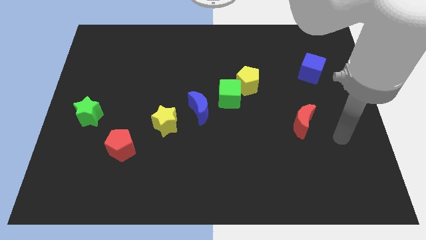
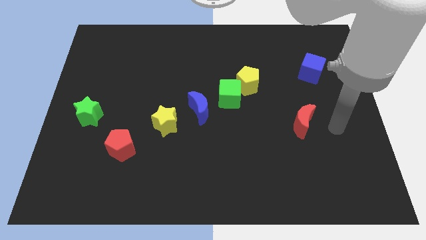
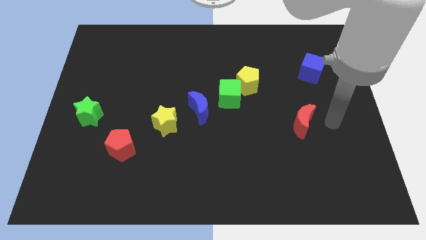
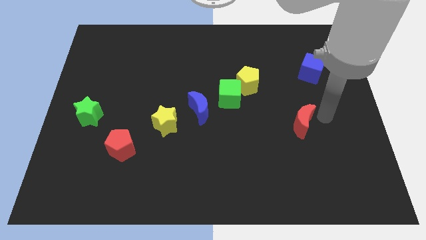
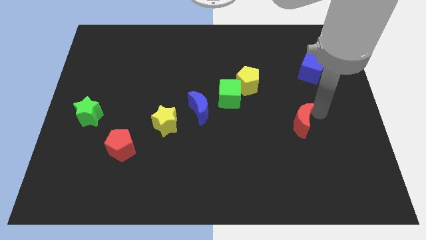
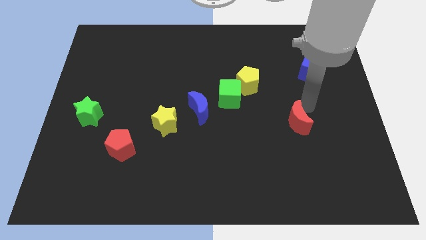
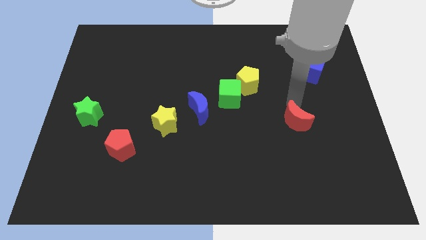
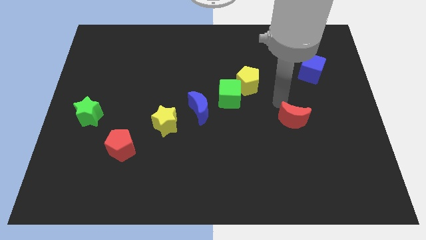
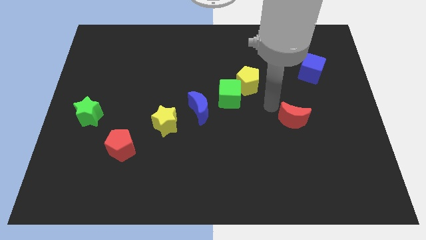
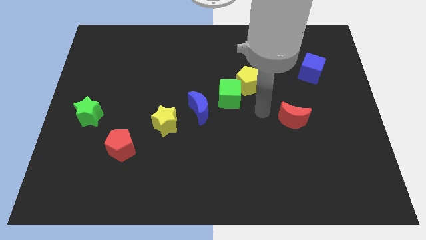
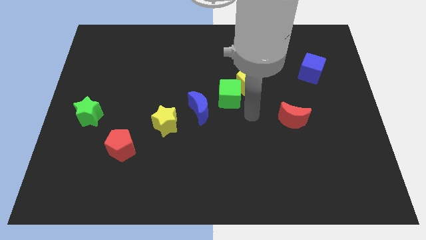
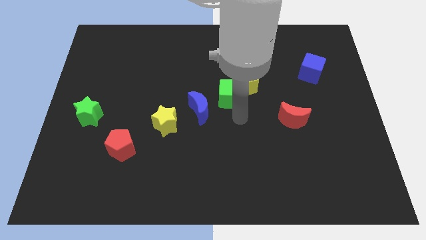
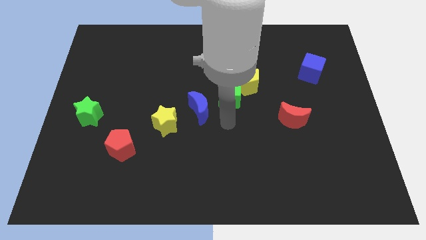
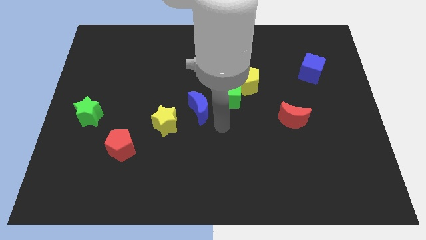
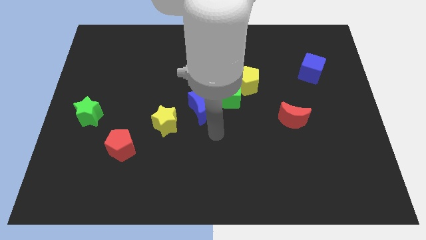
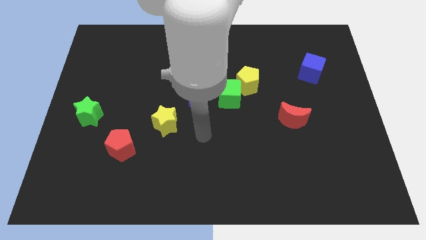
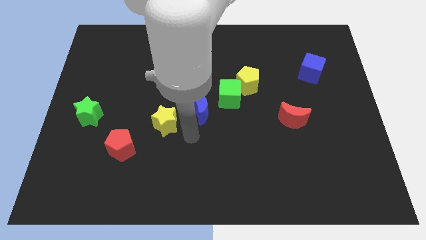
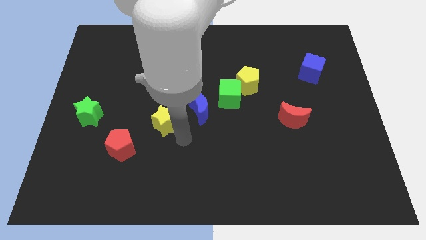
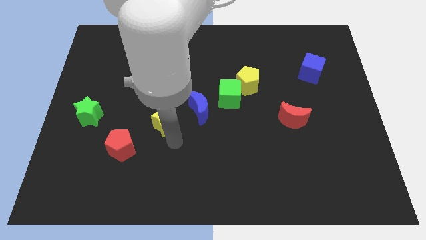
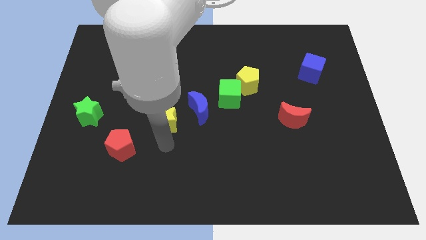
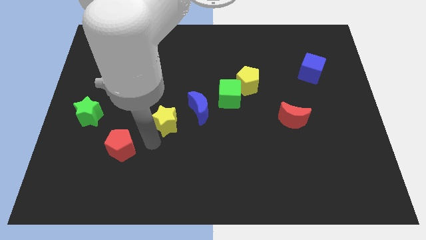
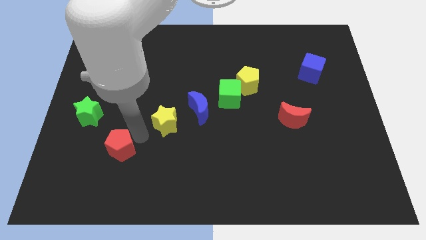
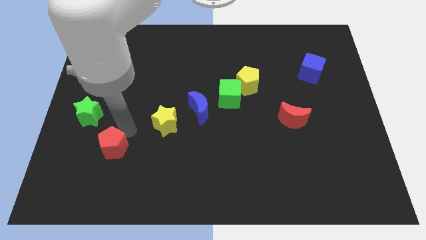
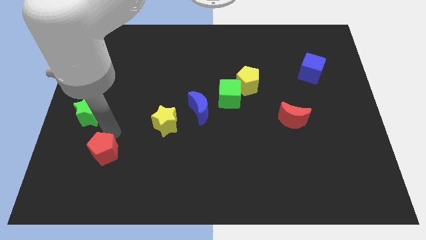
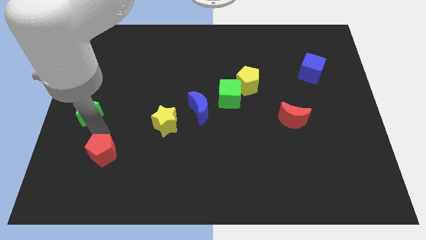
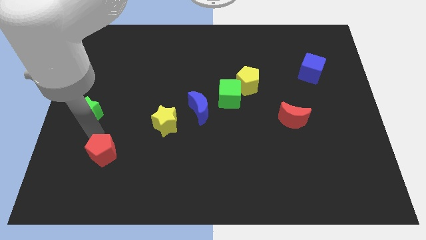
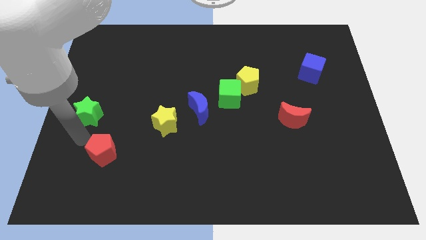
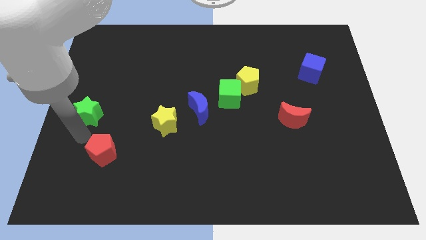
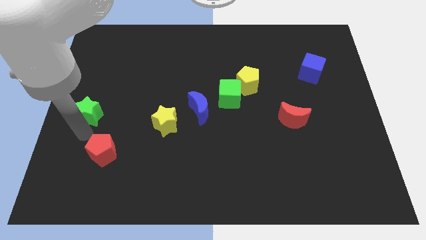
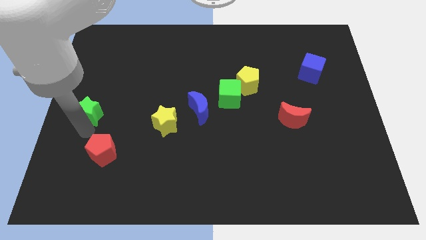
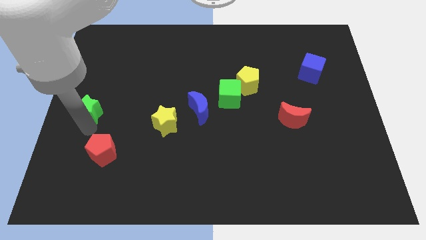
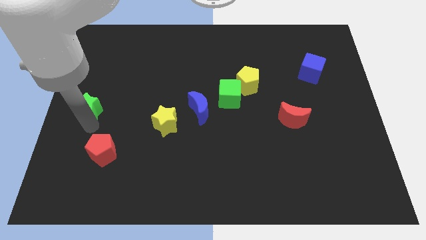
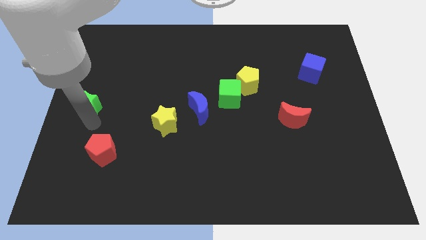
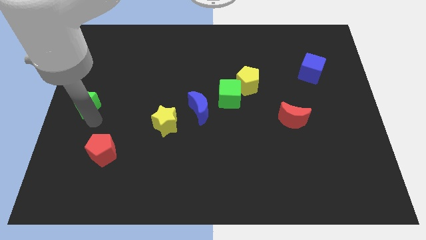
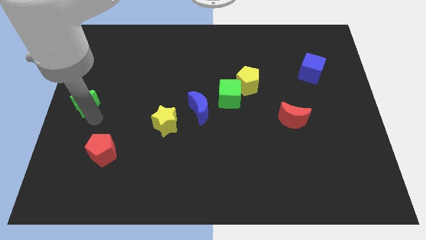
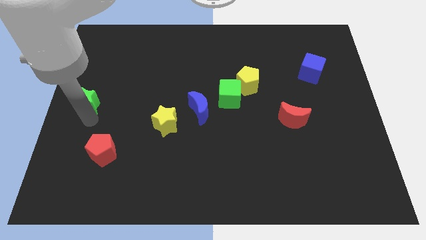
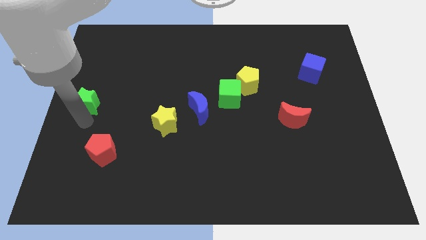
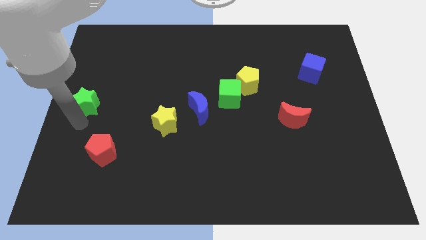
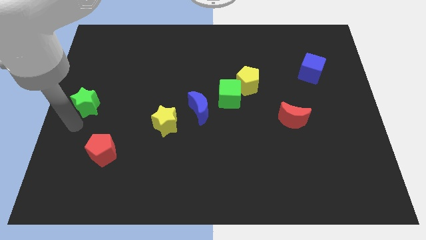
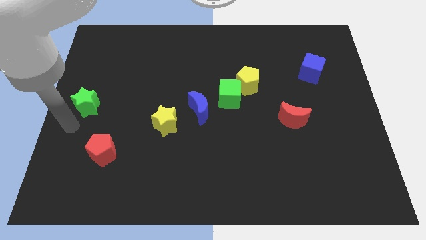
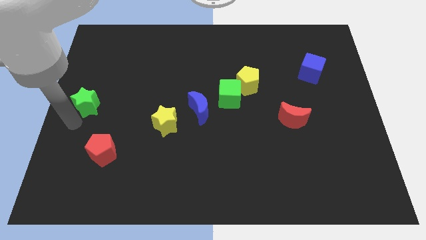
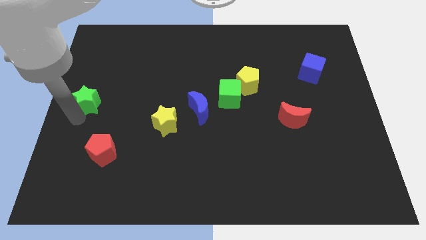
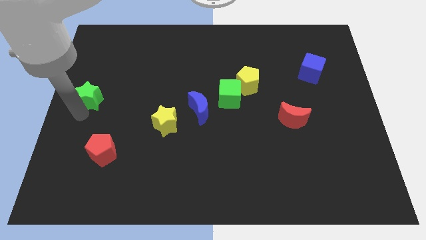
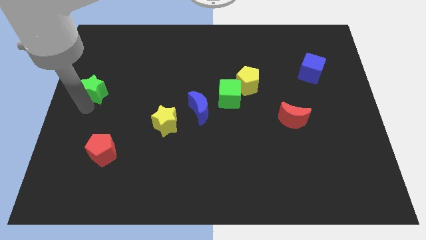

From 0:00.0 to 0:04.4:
slightly slide the green star up

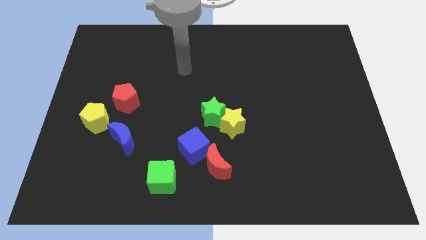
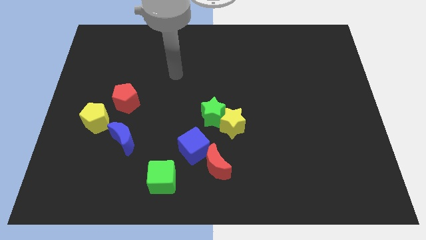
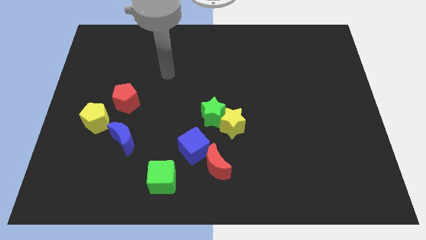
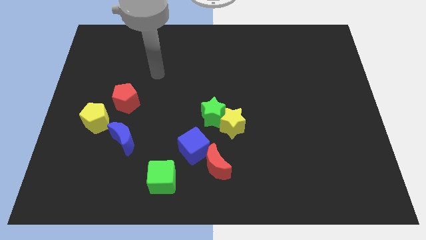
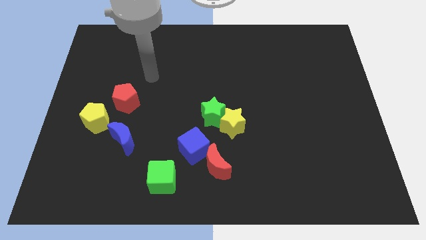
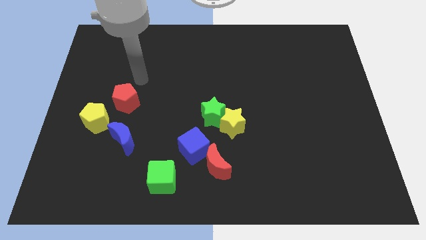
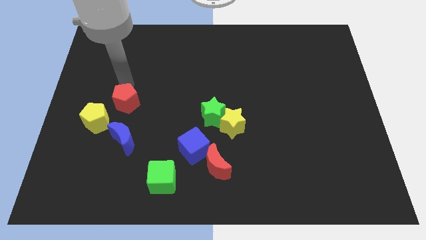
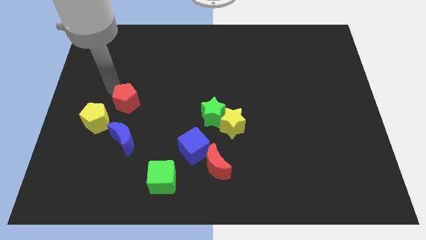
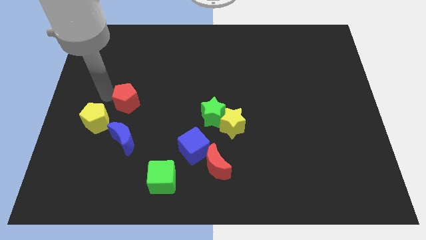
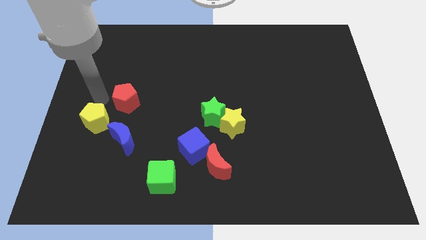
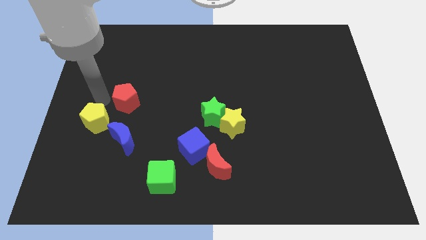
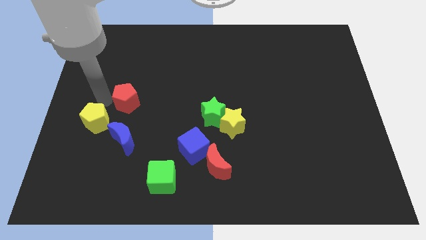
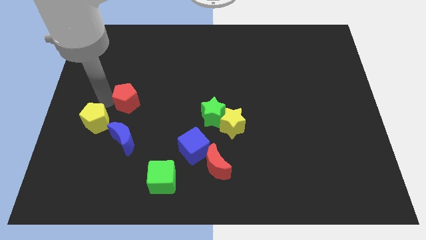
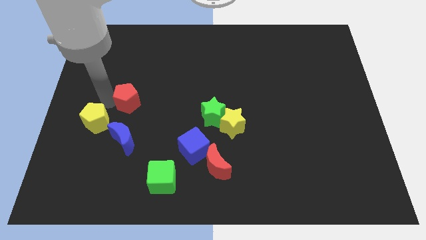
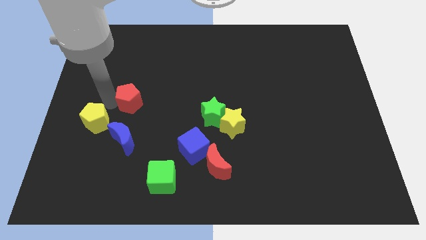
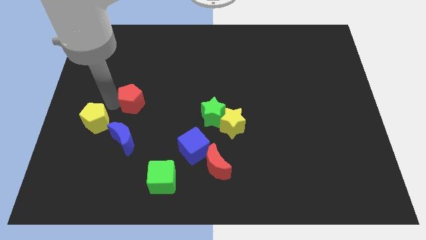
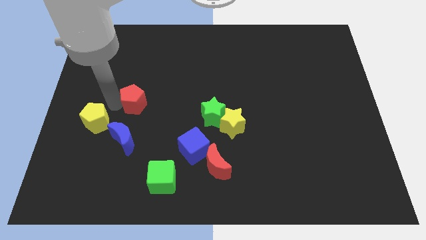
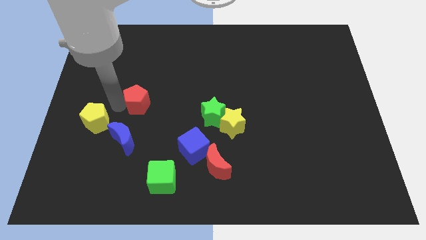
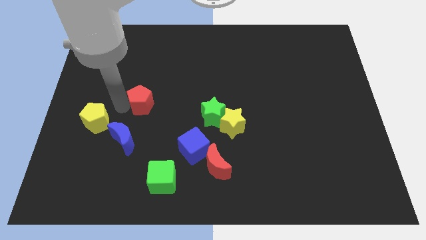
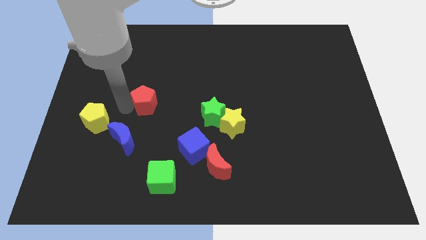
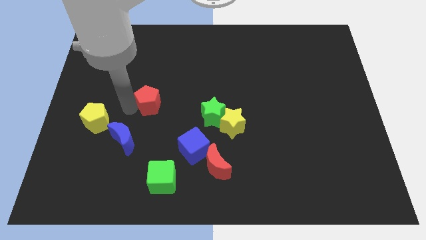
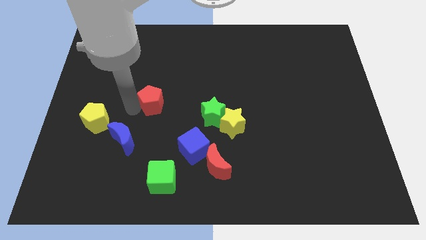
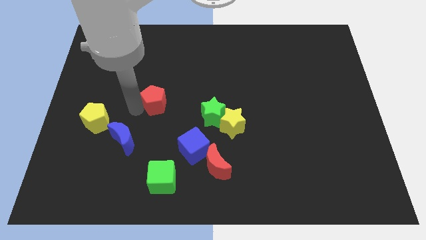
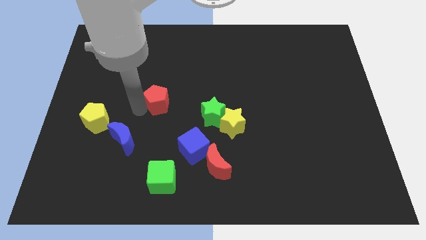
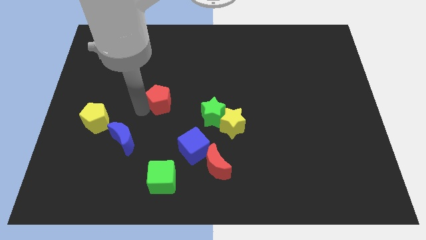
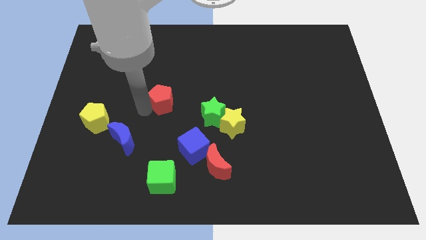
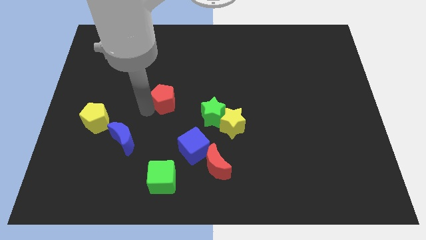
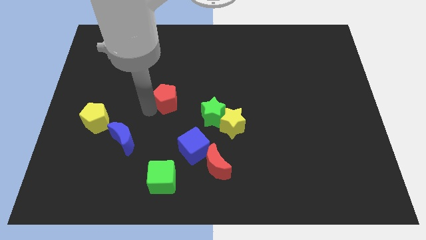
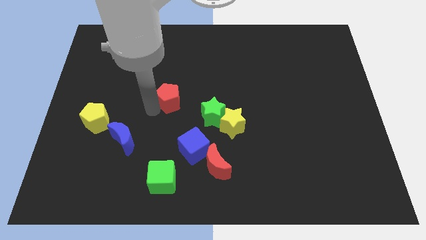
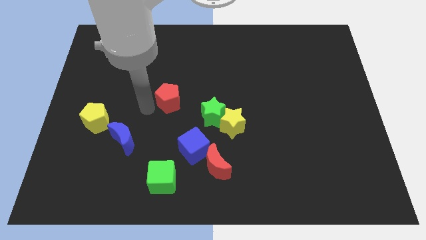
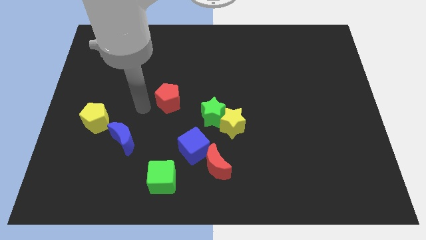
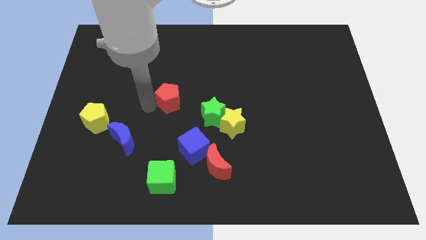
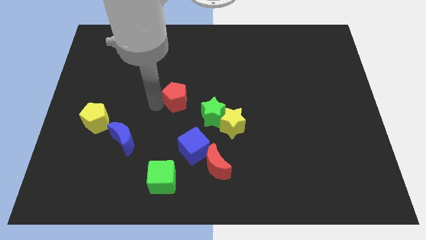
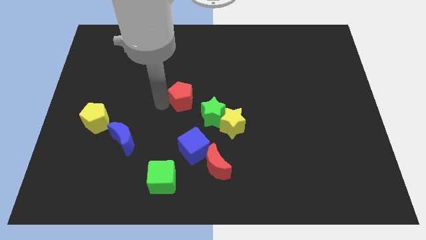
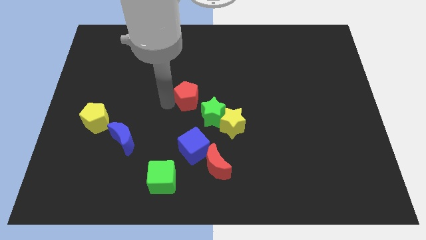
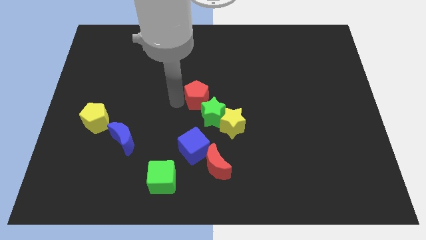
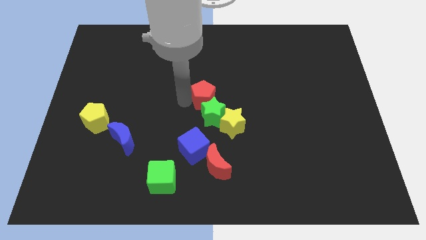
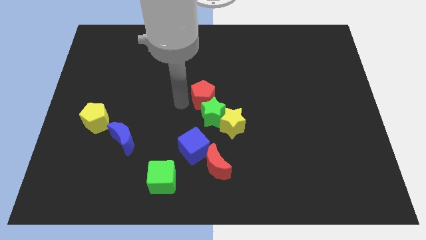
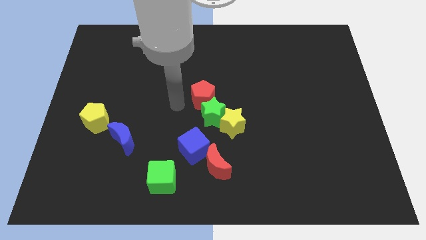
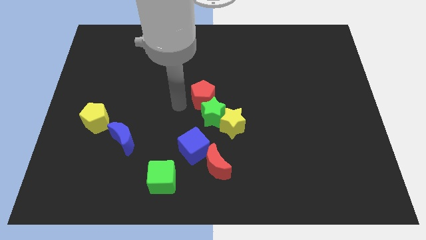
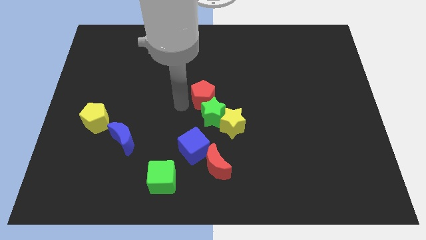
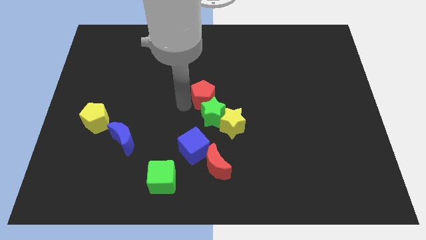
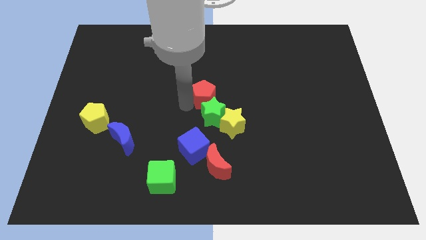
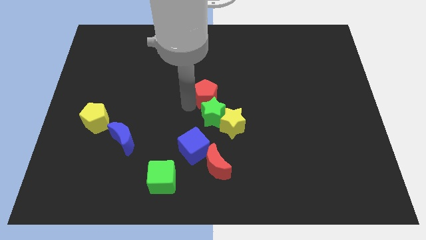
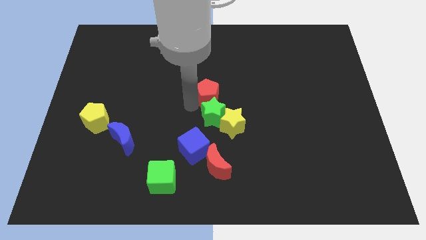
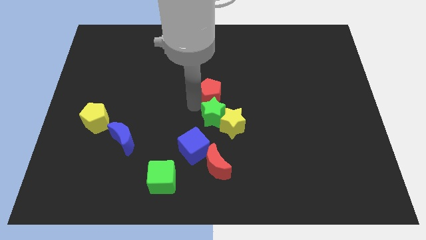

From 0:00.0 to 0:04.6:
push the red pentagon to the right
